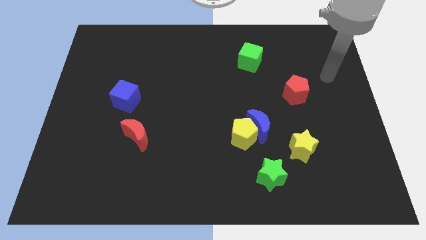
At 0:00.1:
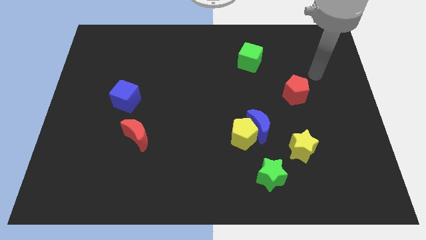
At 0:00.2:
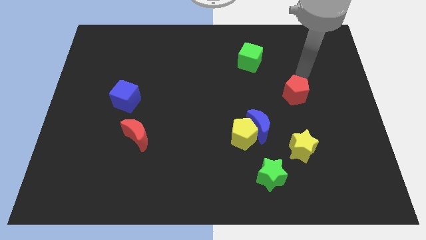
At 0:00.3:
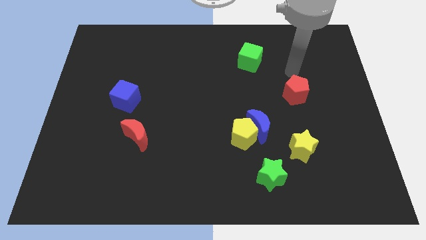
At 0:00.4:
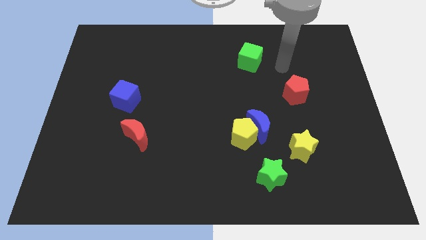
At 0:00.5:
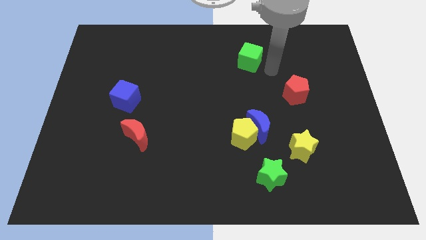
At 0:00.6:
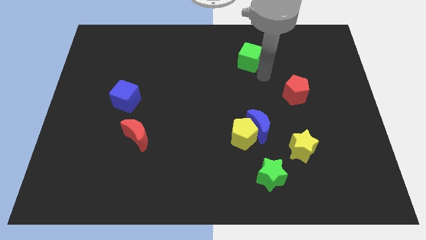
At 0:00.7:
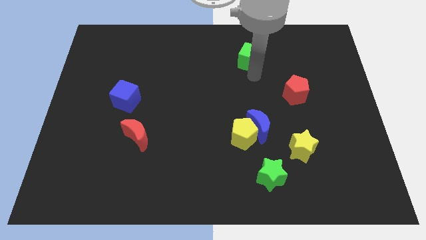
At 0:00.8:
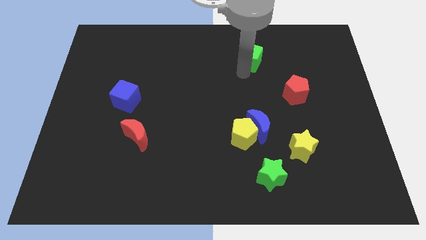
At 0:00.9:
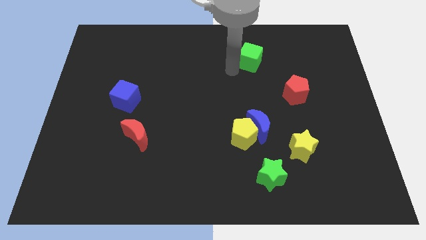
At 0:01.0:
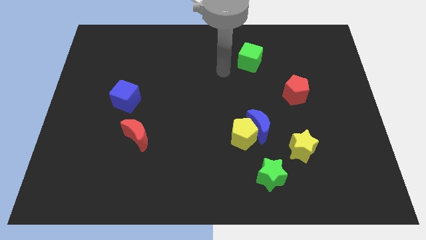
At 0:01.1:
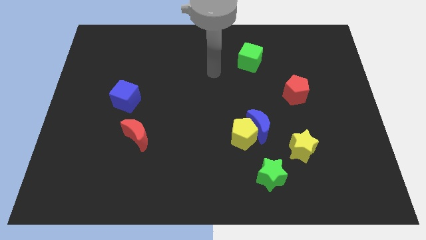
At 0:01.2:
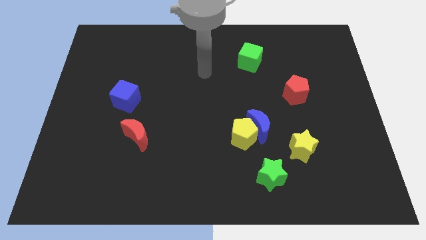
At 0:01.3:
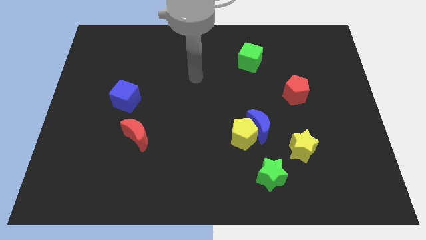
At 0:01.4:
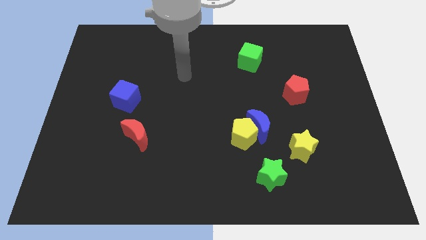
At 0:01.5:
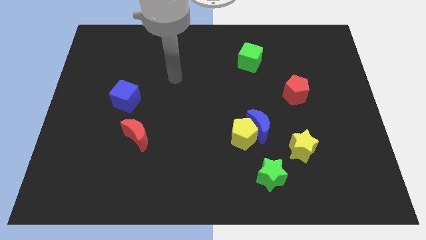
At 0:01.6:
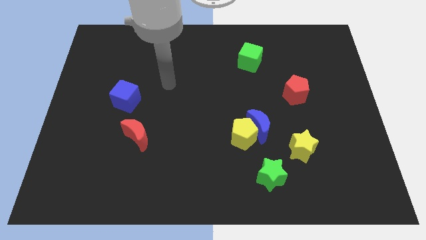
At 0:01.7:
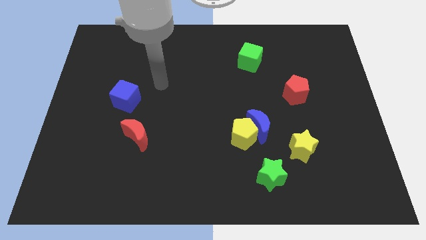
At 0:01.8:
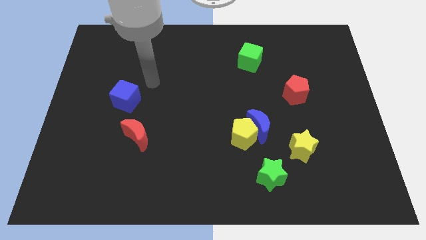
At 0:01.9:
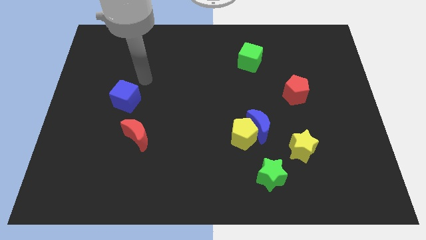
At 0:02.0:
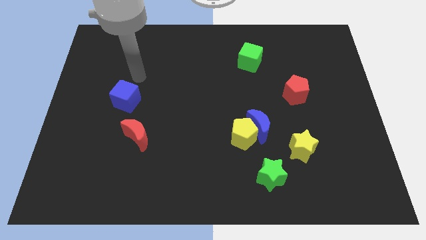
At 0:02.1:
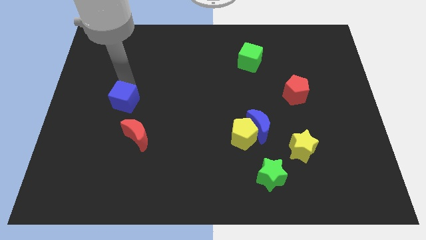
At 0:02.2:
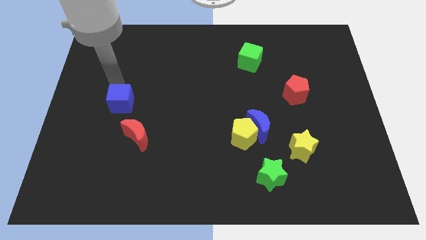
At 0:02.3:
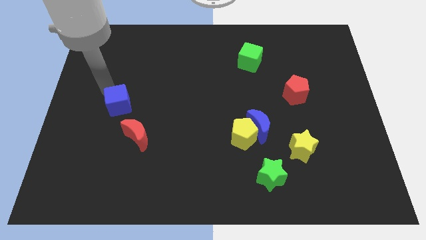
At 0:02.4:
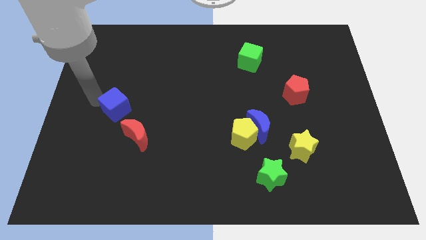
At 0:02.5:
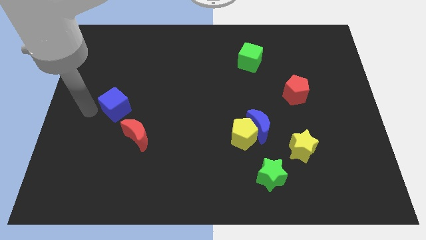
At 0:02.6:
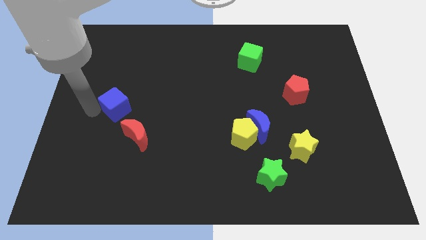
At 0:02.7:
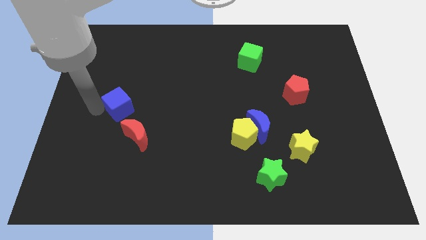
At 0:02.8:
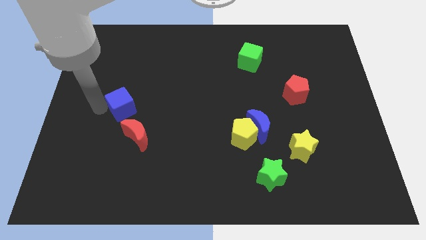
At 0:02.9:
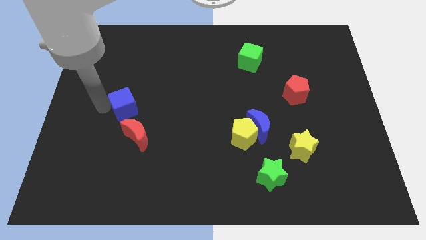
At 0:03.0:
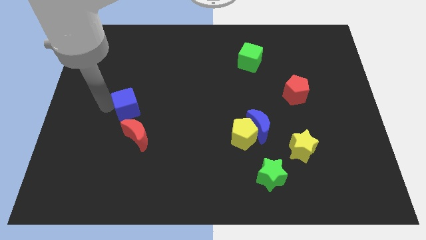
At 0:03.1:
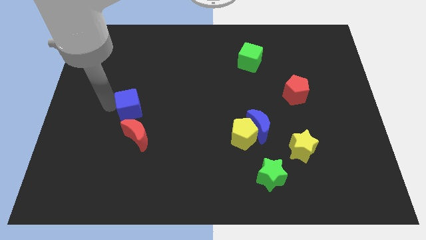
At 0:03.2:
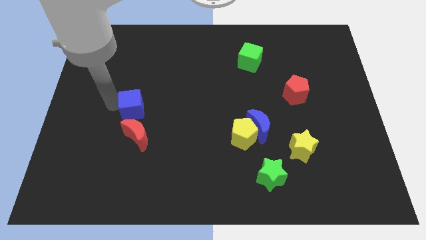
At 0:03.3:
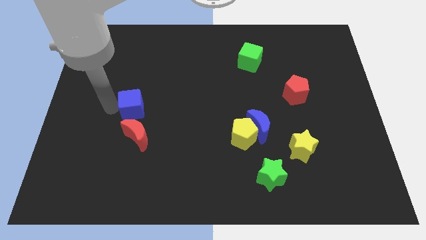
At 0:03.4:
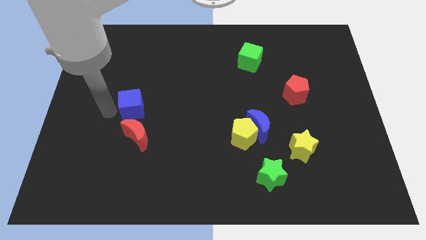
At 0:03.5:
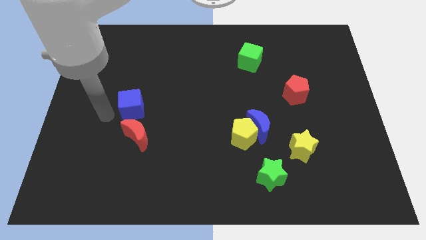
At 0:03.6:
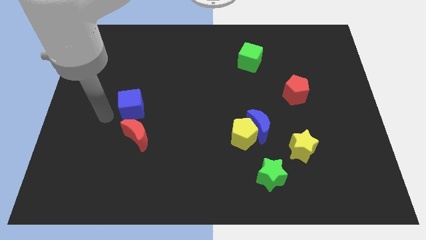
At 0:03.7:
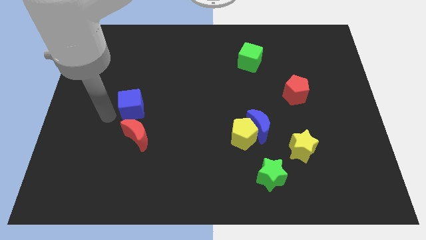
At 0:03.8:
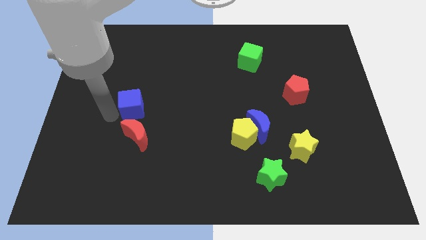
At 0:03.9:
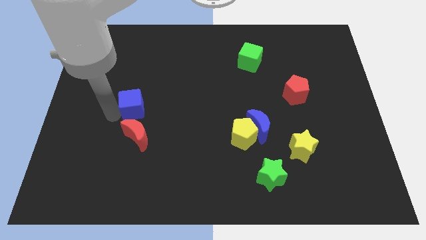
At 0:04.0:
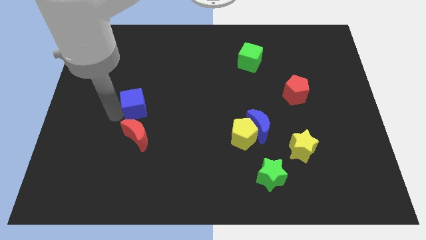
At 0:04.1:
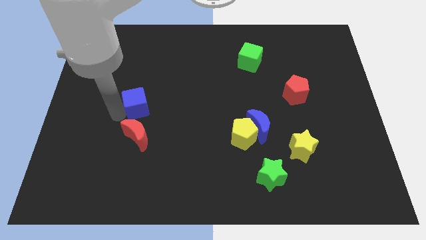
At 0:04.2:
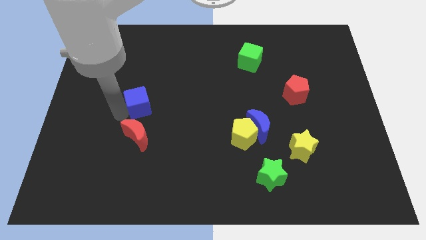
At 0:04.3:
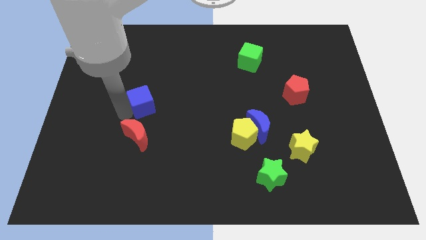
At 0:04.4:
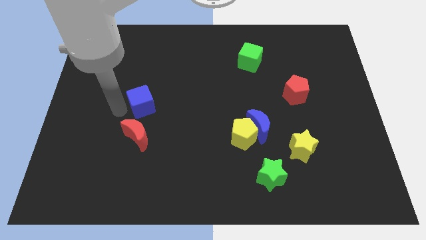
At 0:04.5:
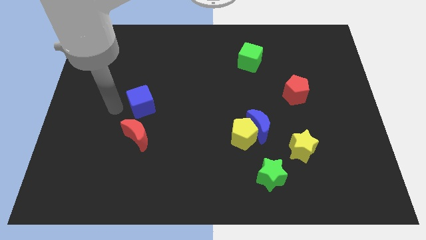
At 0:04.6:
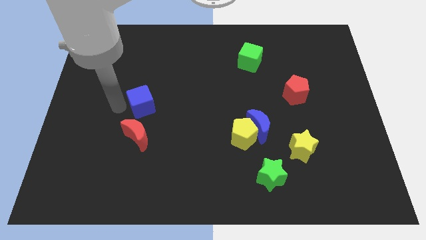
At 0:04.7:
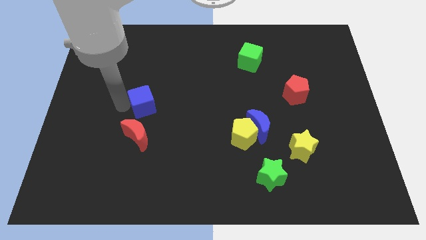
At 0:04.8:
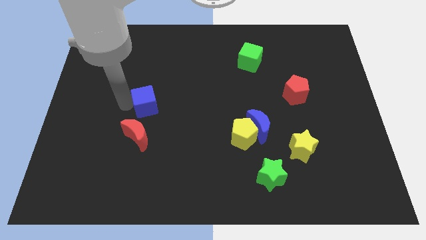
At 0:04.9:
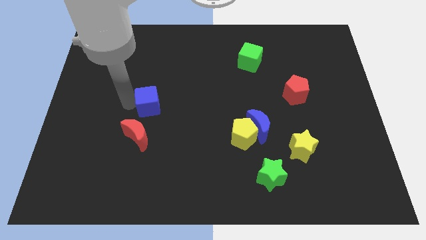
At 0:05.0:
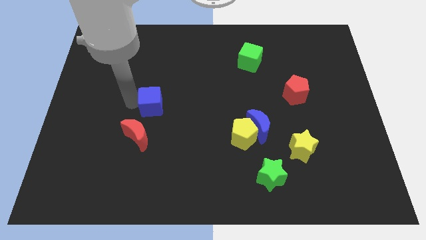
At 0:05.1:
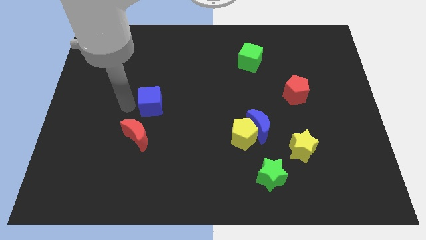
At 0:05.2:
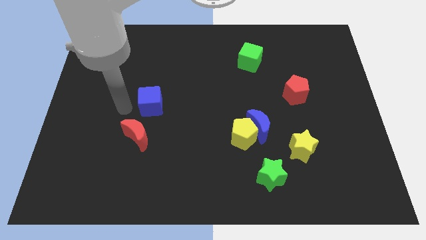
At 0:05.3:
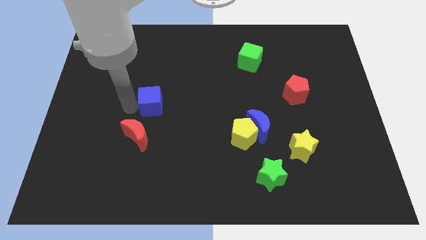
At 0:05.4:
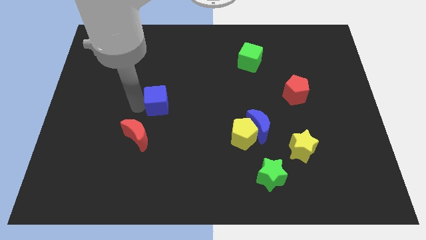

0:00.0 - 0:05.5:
move the blue cube to the right a little

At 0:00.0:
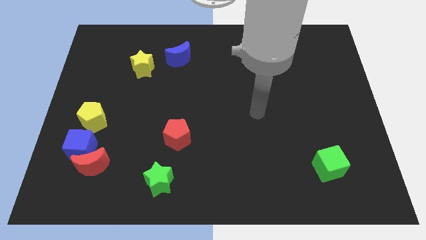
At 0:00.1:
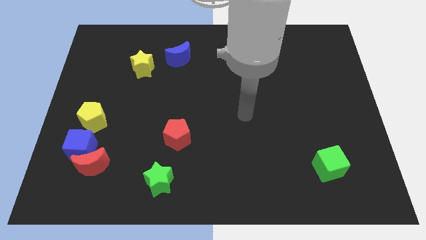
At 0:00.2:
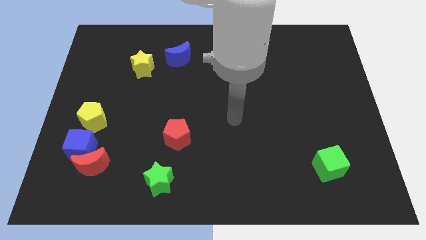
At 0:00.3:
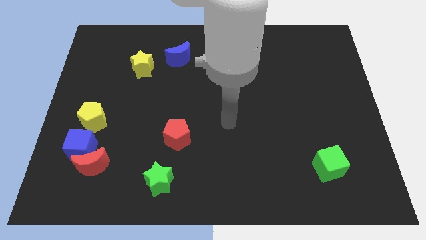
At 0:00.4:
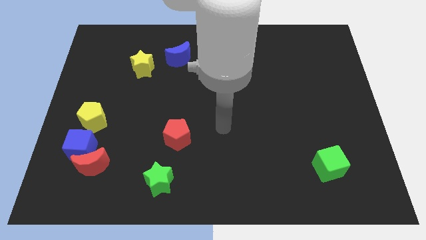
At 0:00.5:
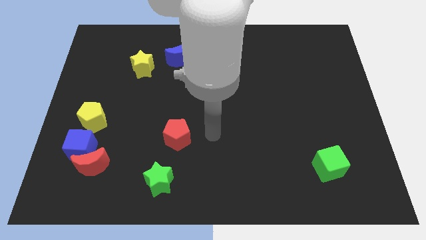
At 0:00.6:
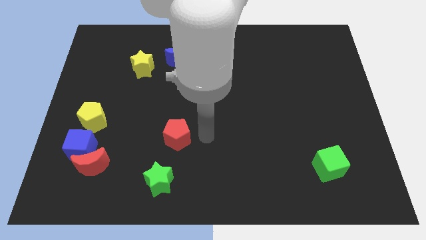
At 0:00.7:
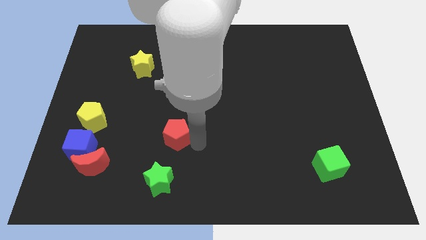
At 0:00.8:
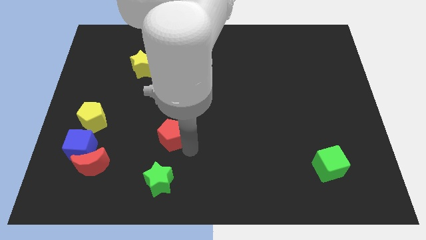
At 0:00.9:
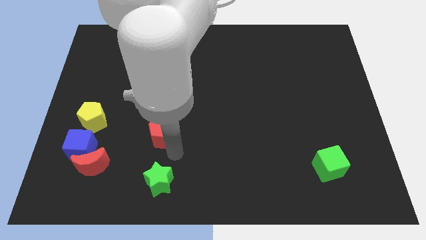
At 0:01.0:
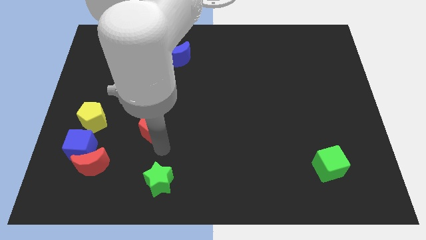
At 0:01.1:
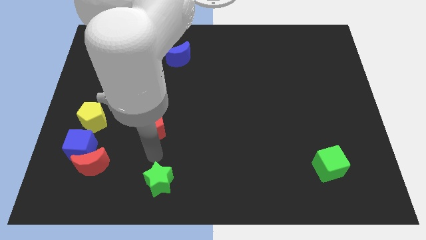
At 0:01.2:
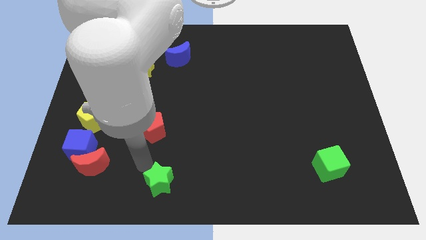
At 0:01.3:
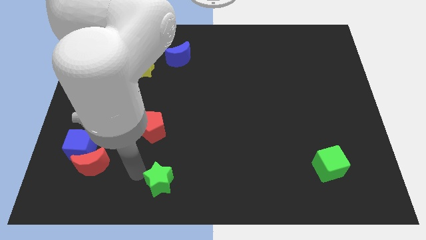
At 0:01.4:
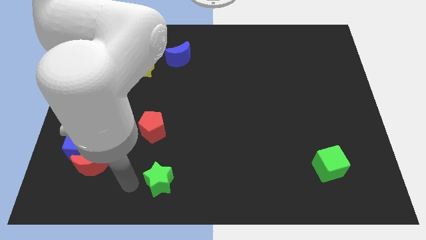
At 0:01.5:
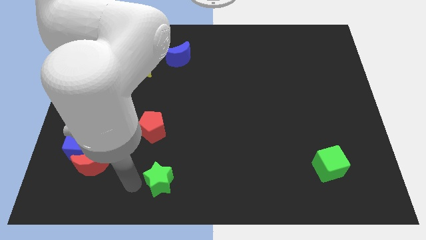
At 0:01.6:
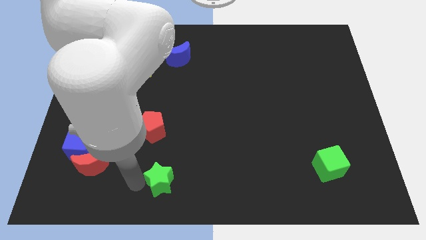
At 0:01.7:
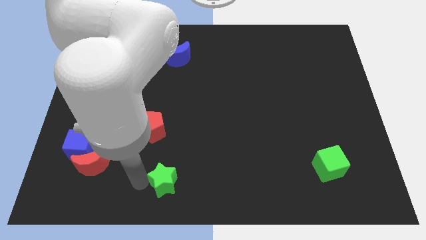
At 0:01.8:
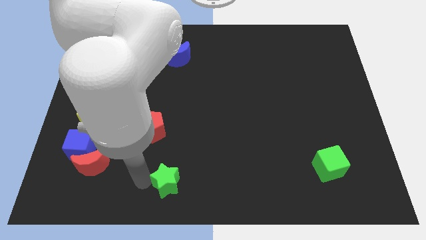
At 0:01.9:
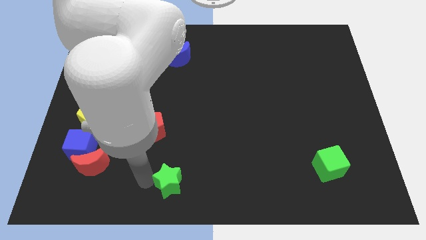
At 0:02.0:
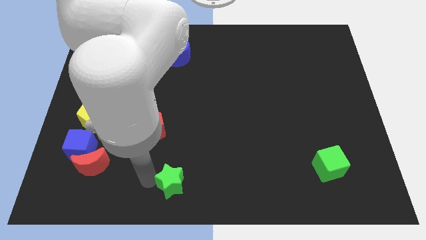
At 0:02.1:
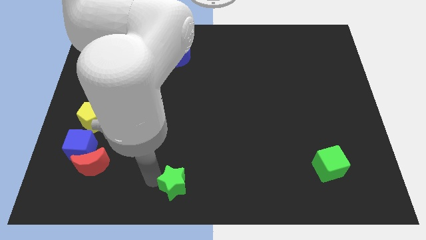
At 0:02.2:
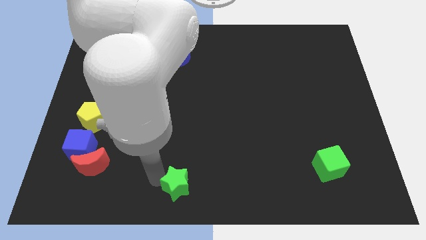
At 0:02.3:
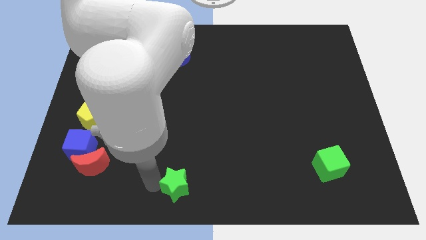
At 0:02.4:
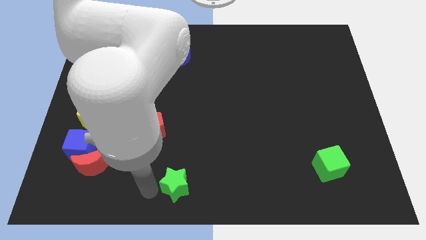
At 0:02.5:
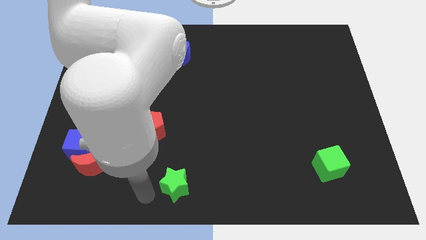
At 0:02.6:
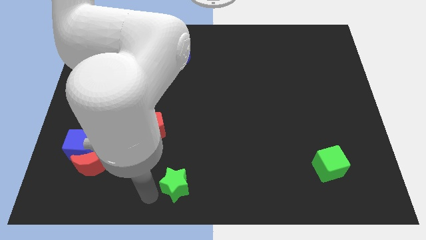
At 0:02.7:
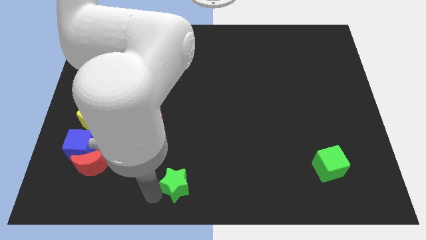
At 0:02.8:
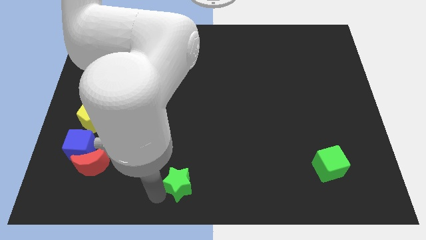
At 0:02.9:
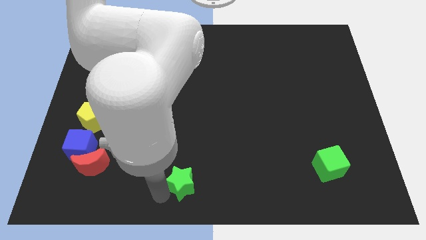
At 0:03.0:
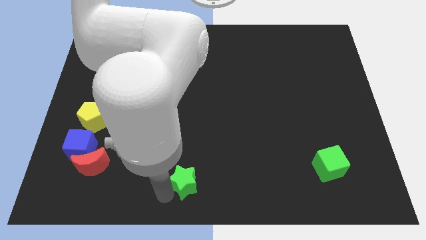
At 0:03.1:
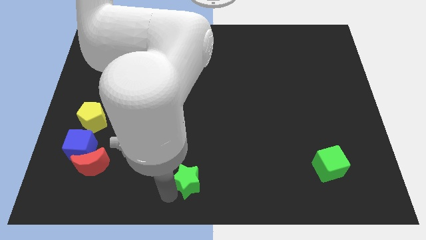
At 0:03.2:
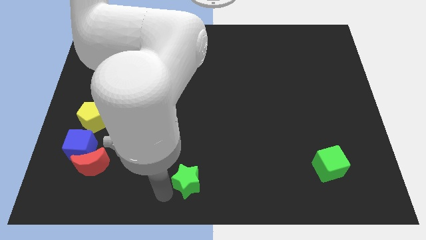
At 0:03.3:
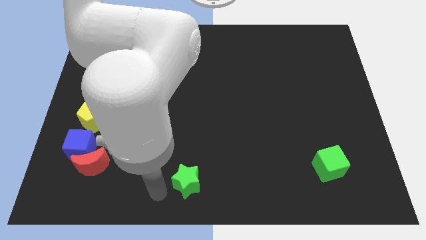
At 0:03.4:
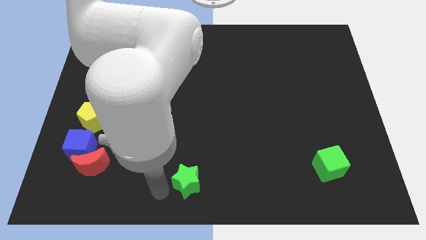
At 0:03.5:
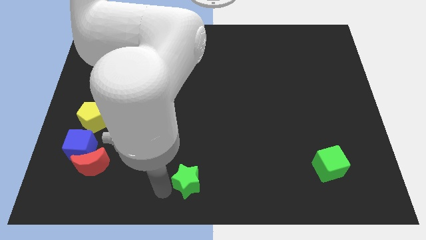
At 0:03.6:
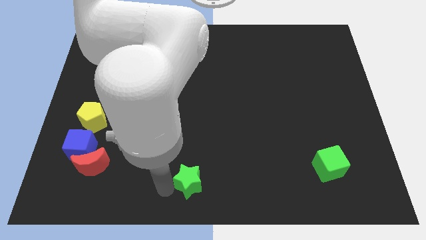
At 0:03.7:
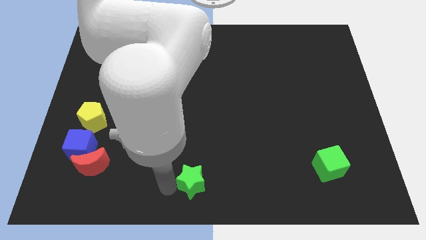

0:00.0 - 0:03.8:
push the green star to the right slightly
